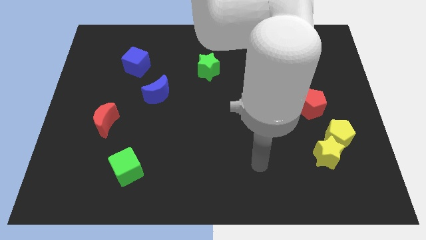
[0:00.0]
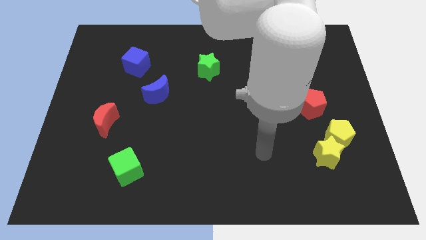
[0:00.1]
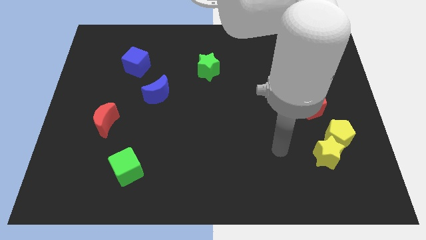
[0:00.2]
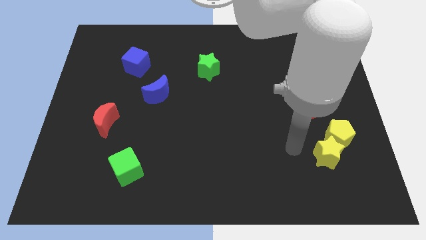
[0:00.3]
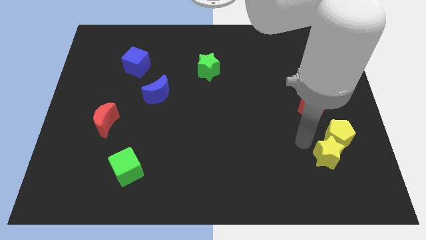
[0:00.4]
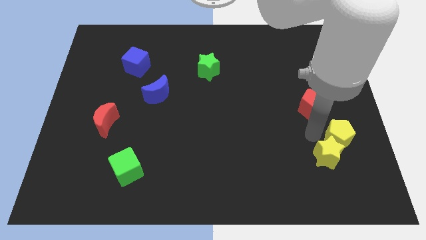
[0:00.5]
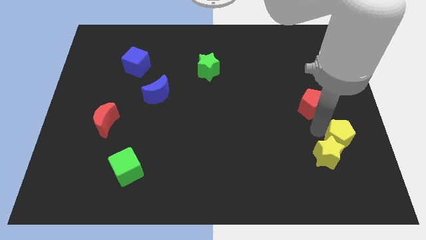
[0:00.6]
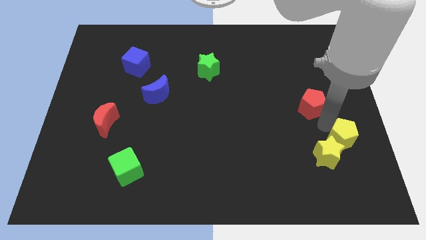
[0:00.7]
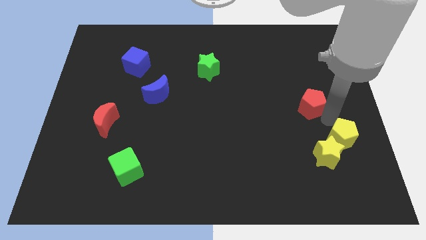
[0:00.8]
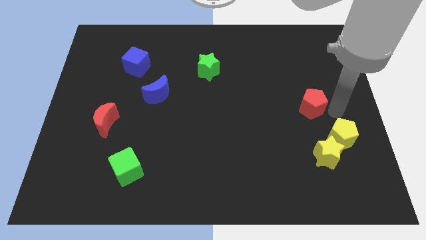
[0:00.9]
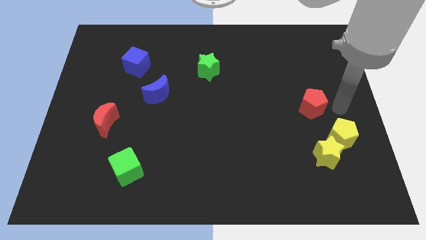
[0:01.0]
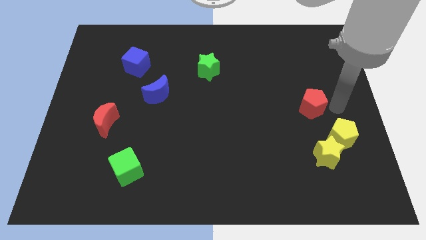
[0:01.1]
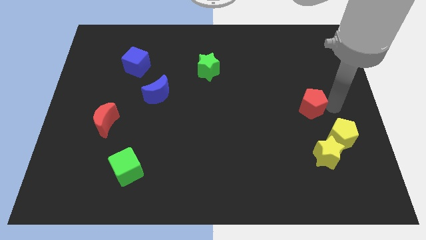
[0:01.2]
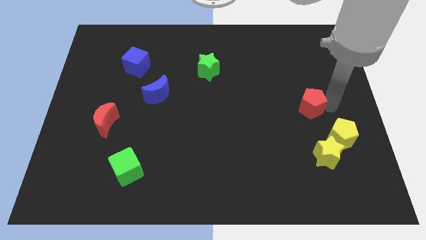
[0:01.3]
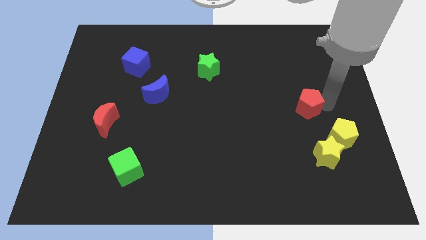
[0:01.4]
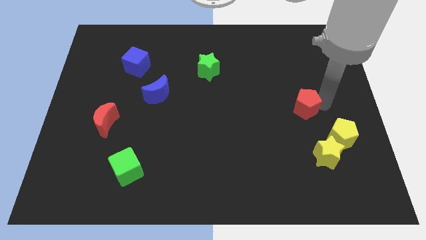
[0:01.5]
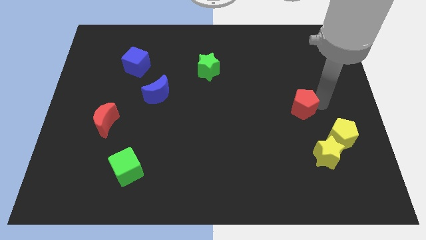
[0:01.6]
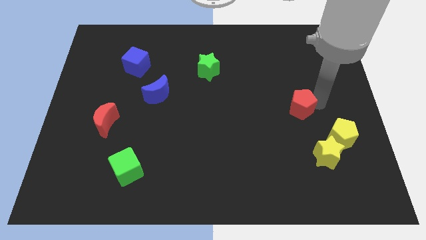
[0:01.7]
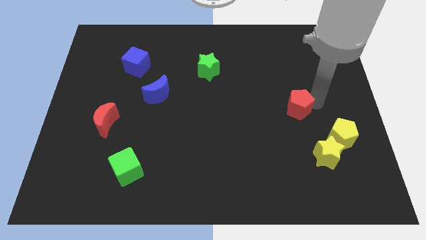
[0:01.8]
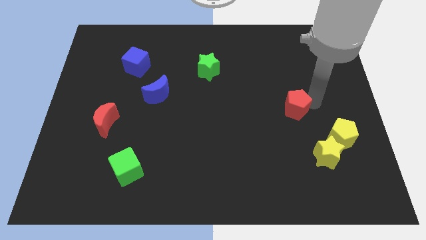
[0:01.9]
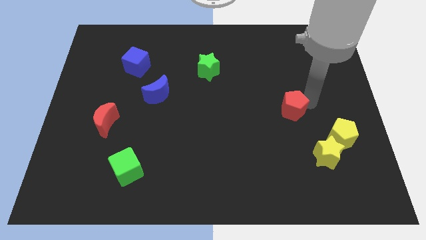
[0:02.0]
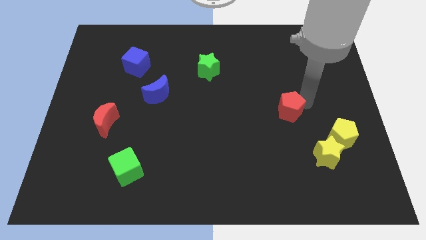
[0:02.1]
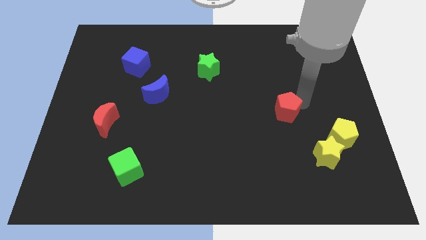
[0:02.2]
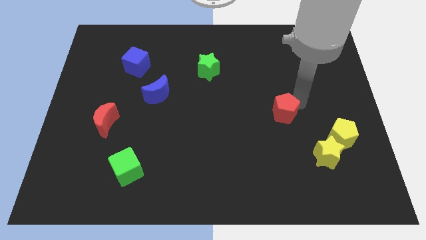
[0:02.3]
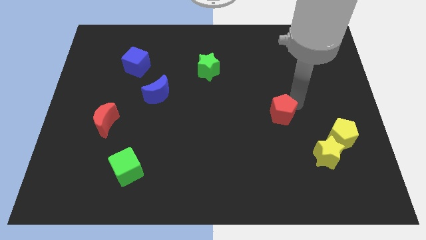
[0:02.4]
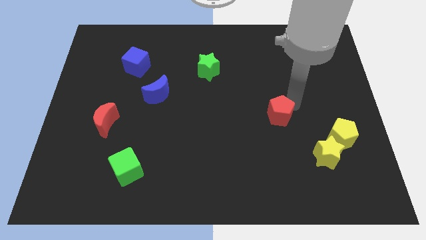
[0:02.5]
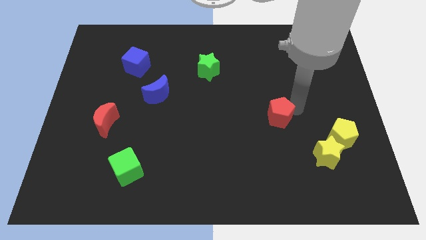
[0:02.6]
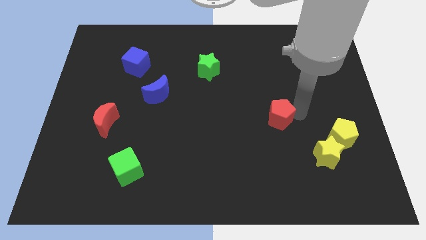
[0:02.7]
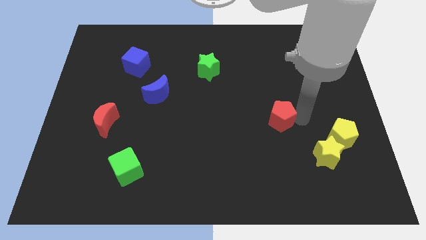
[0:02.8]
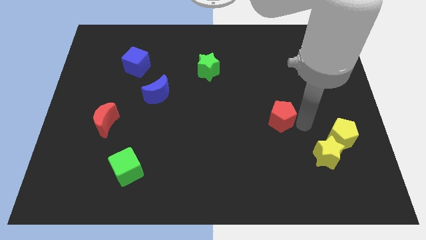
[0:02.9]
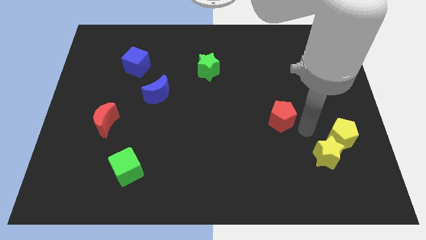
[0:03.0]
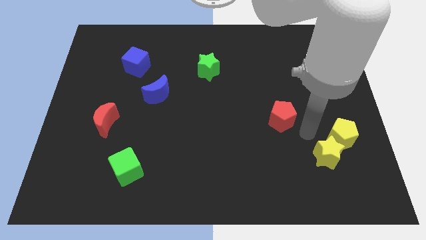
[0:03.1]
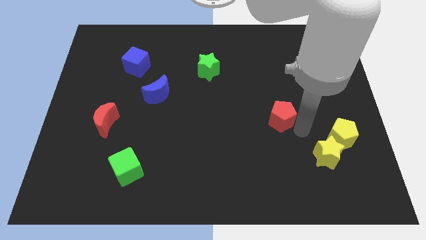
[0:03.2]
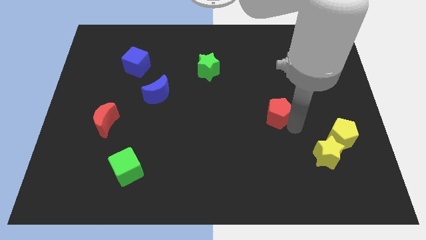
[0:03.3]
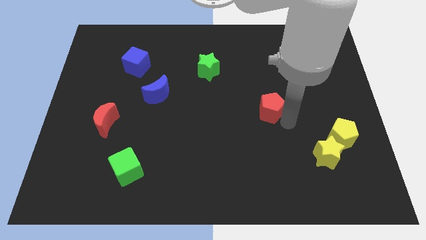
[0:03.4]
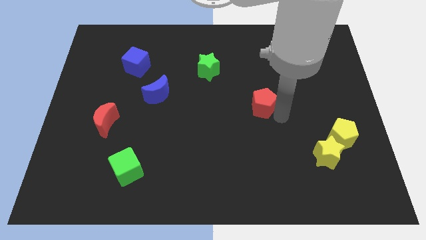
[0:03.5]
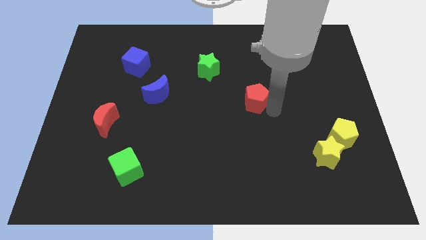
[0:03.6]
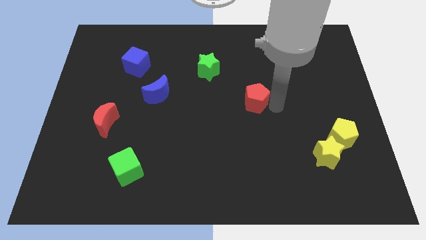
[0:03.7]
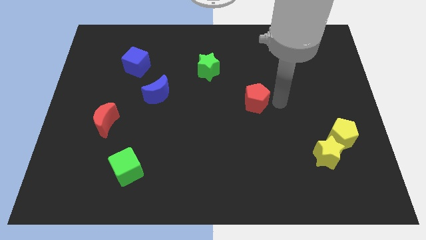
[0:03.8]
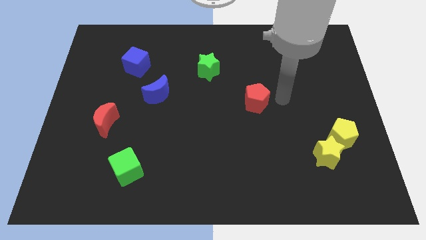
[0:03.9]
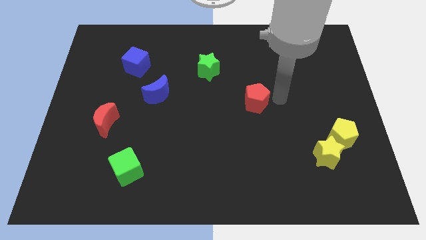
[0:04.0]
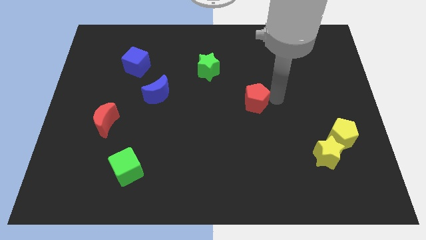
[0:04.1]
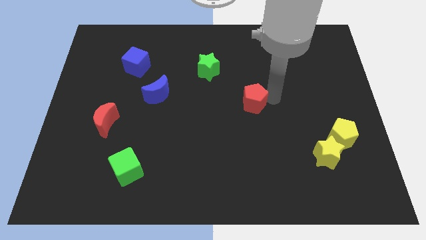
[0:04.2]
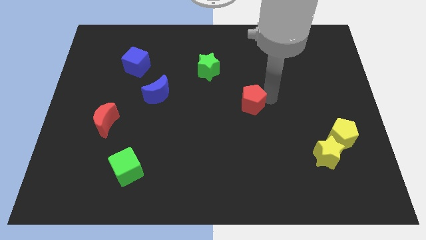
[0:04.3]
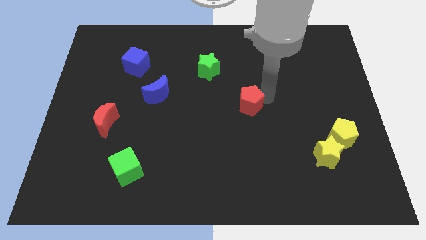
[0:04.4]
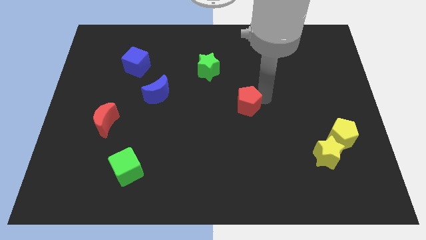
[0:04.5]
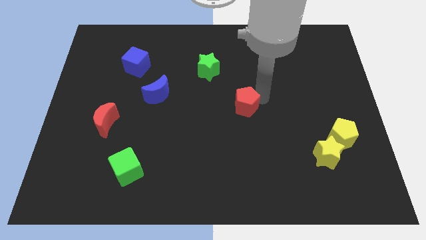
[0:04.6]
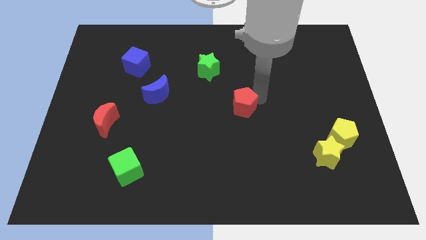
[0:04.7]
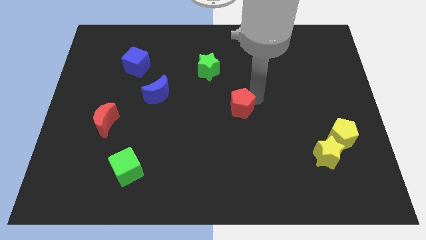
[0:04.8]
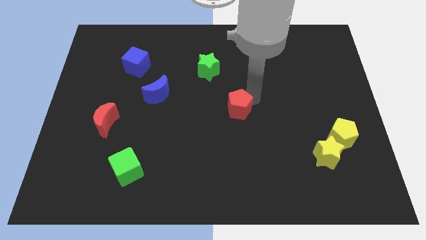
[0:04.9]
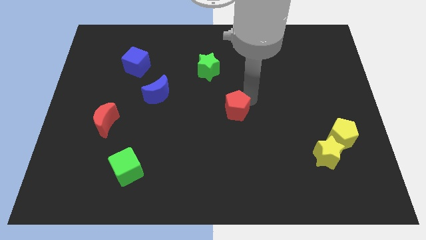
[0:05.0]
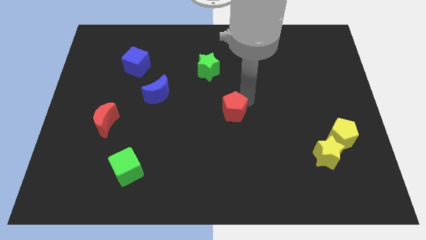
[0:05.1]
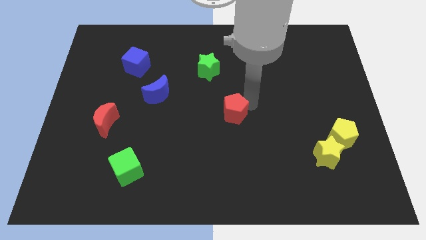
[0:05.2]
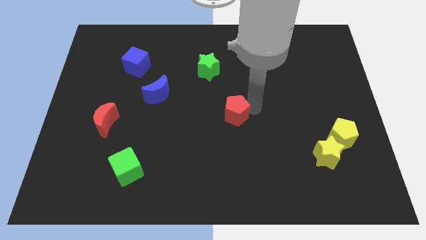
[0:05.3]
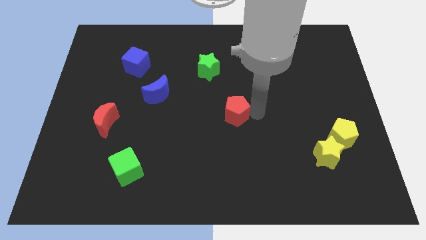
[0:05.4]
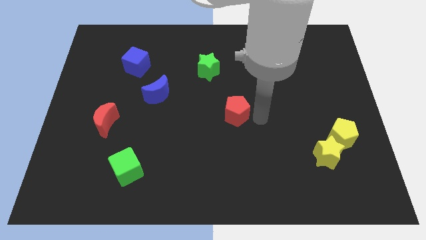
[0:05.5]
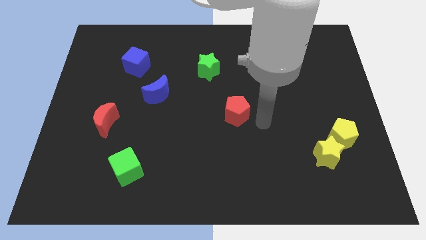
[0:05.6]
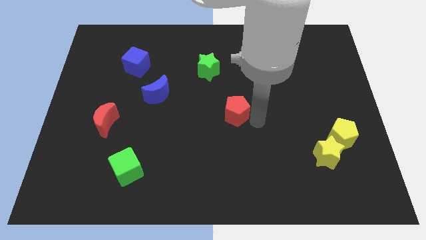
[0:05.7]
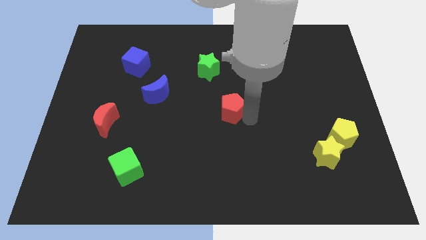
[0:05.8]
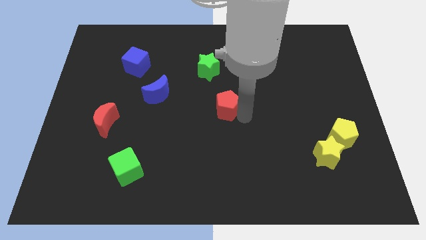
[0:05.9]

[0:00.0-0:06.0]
move the red pentagon left

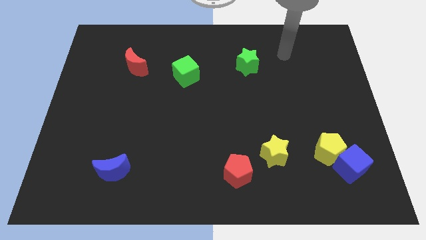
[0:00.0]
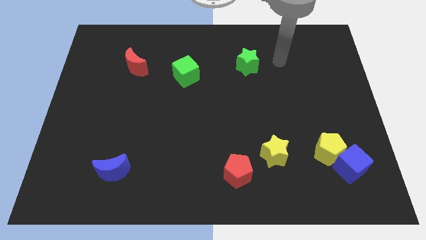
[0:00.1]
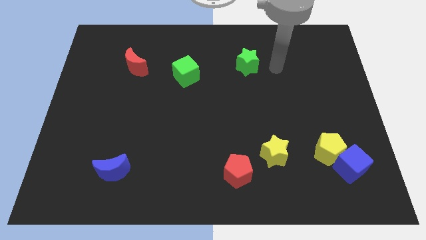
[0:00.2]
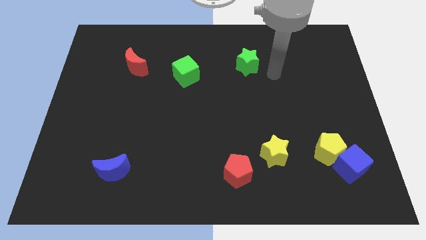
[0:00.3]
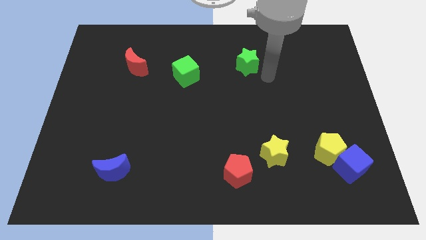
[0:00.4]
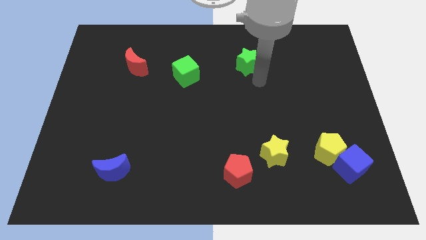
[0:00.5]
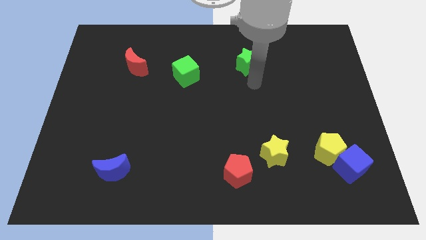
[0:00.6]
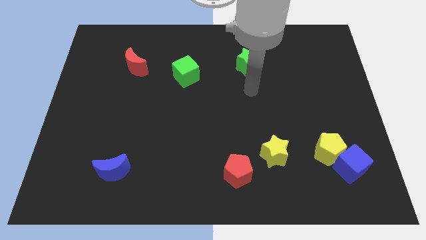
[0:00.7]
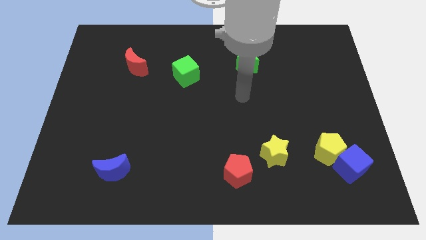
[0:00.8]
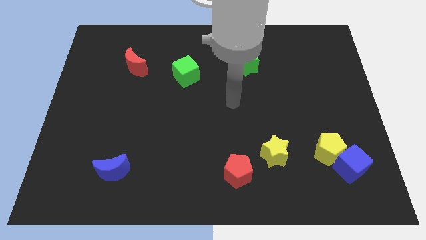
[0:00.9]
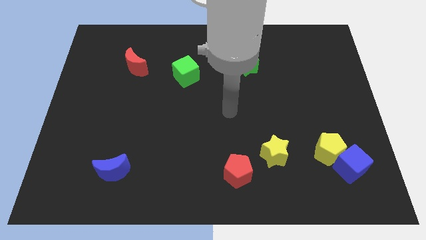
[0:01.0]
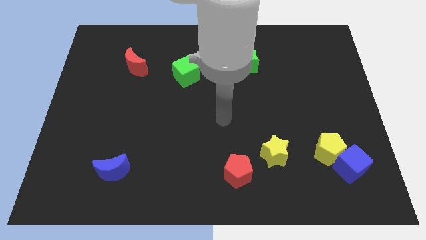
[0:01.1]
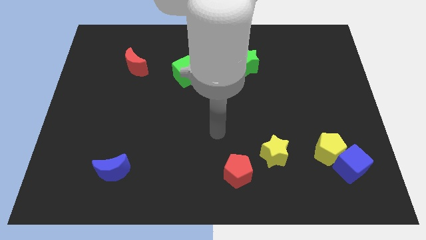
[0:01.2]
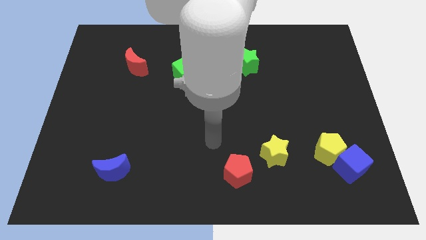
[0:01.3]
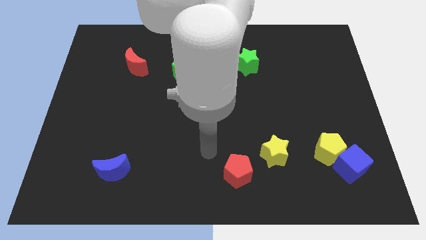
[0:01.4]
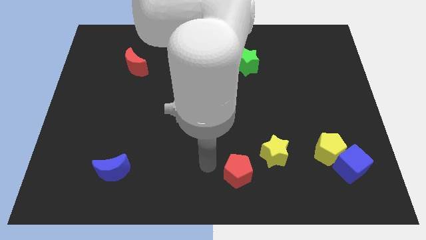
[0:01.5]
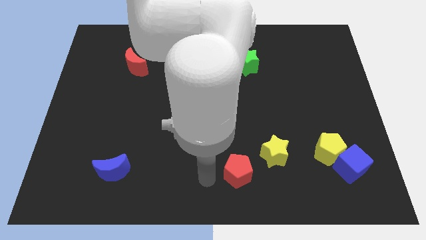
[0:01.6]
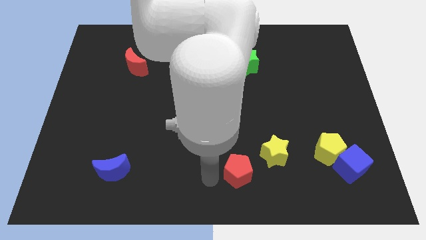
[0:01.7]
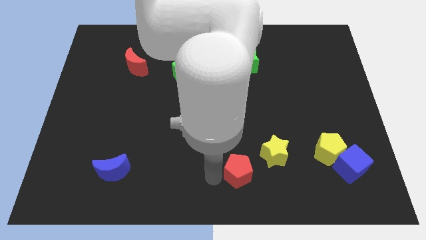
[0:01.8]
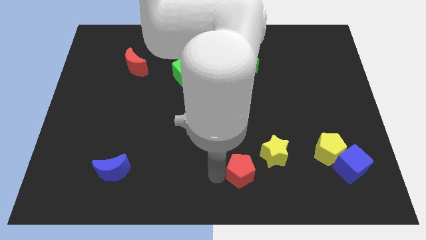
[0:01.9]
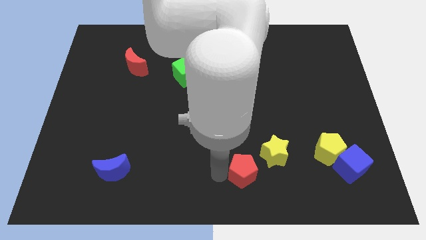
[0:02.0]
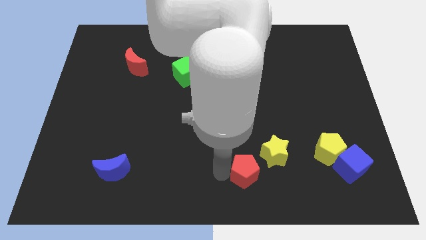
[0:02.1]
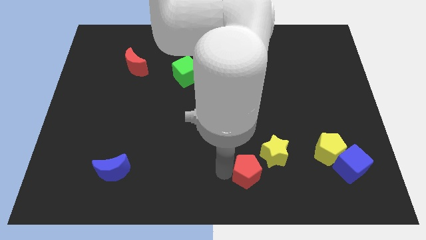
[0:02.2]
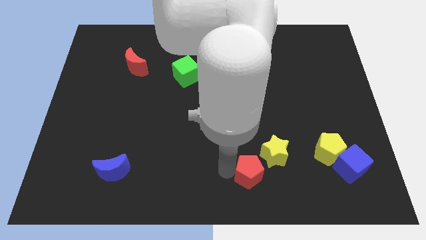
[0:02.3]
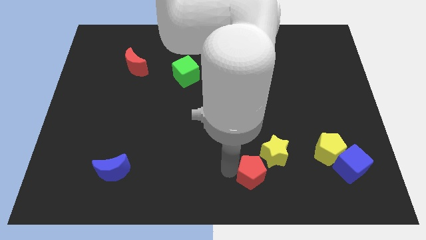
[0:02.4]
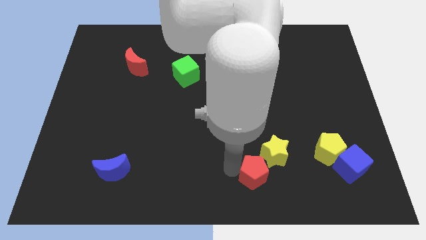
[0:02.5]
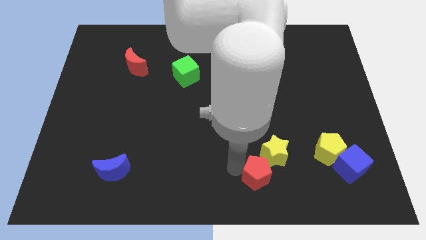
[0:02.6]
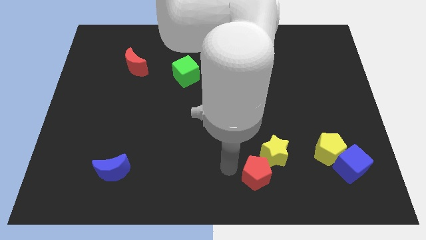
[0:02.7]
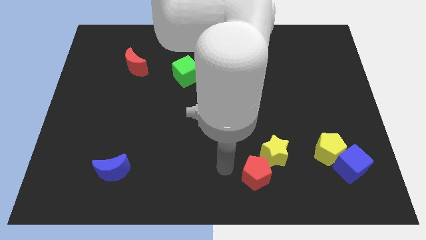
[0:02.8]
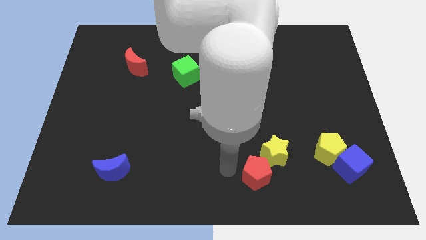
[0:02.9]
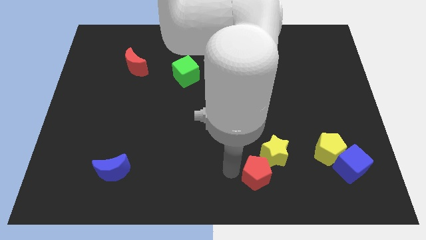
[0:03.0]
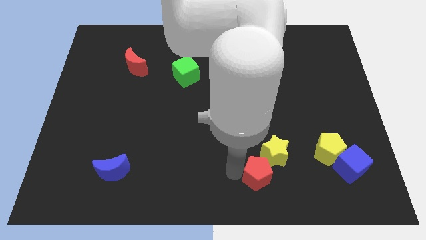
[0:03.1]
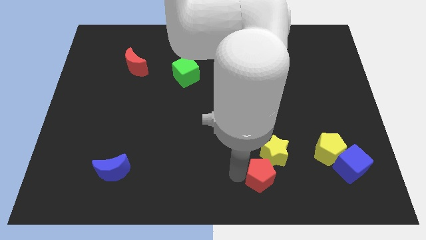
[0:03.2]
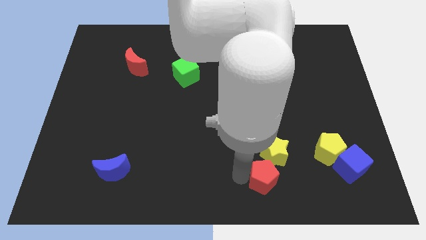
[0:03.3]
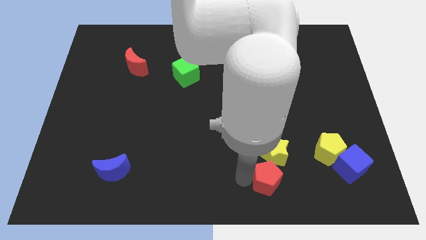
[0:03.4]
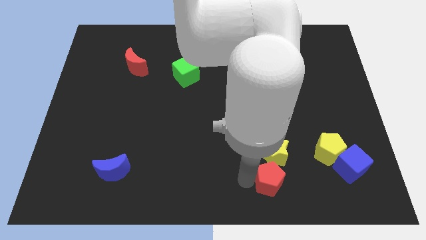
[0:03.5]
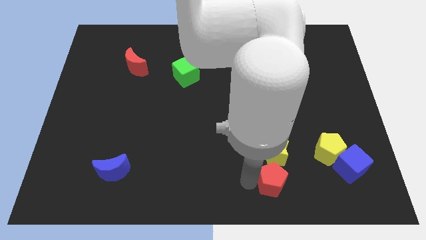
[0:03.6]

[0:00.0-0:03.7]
slightly push the red pentagon right
